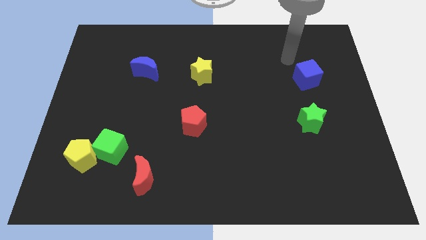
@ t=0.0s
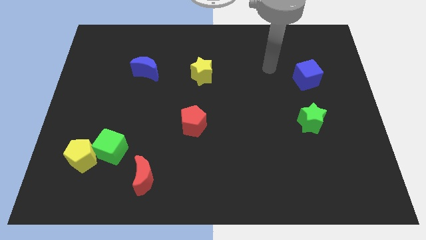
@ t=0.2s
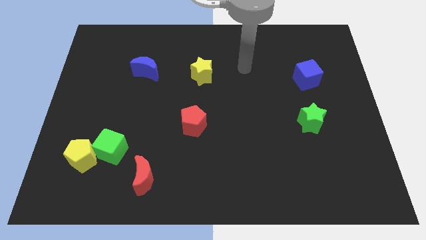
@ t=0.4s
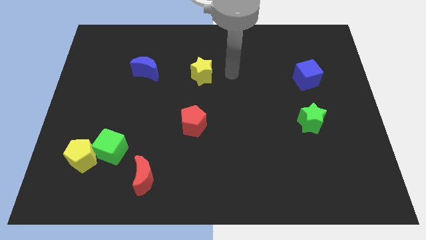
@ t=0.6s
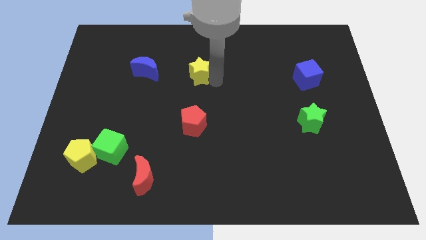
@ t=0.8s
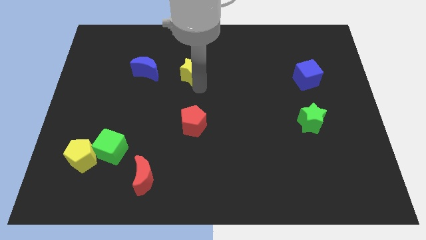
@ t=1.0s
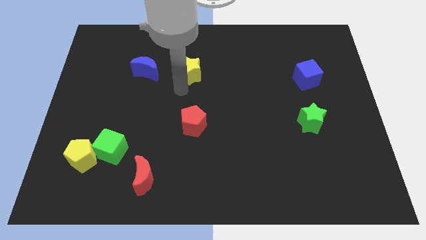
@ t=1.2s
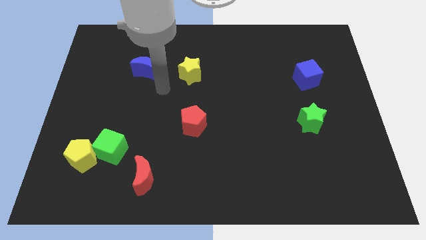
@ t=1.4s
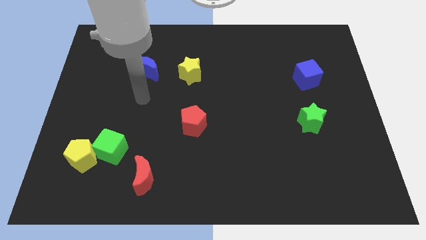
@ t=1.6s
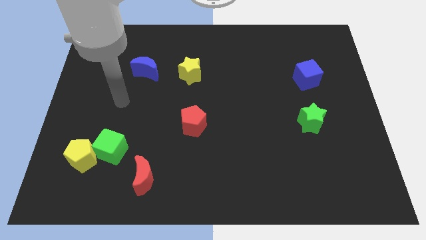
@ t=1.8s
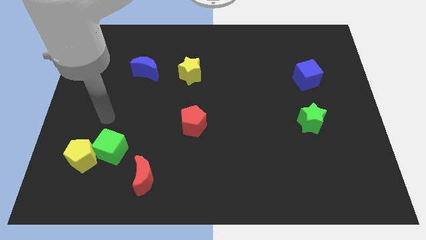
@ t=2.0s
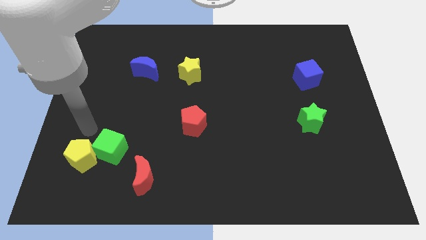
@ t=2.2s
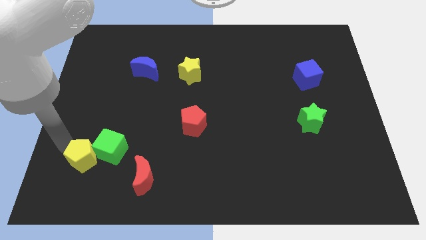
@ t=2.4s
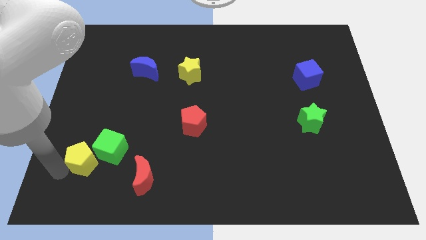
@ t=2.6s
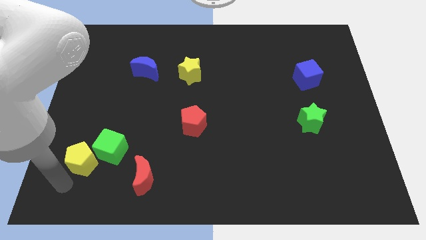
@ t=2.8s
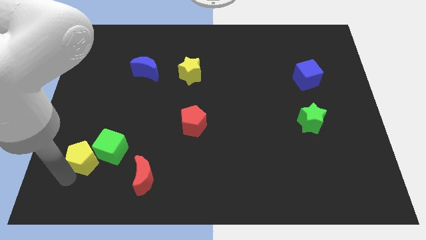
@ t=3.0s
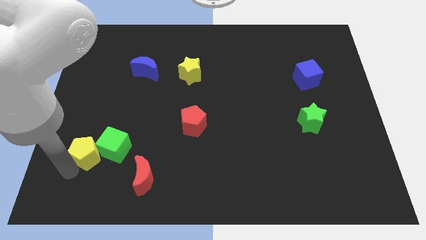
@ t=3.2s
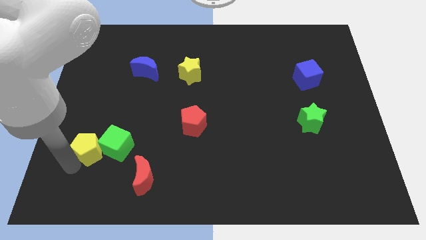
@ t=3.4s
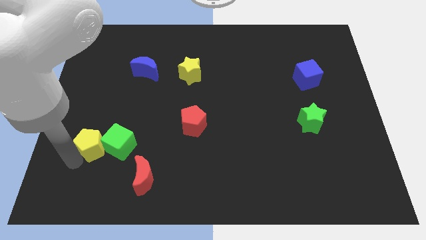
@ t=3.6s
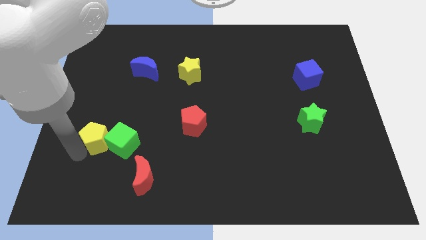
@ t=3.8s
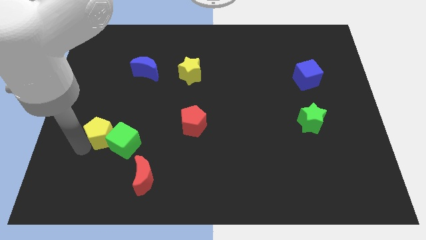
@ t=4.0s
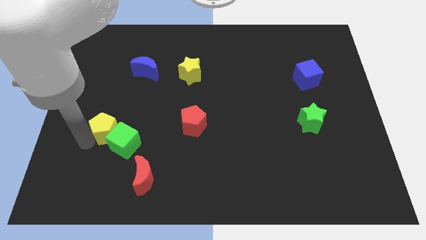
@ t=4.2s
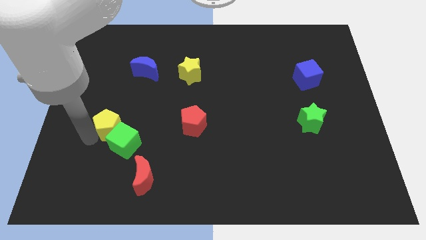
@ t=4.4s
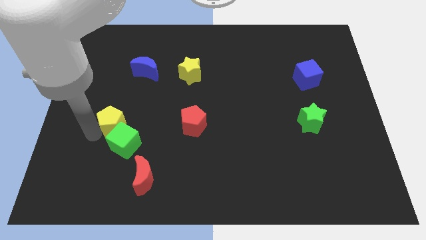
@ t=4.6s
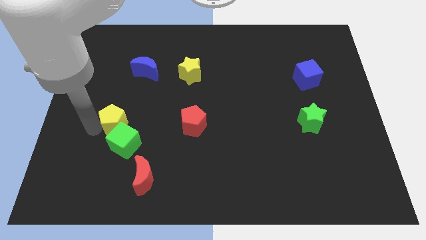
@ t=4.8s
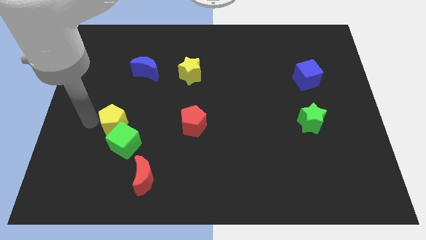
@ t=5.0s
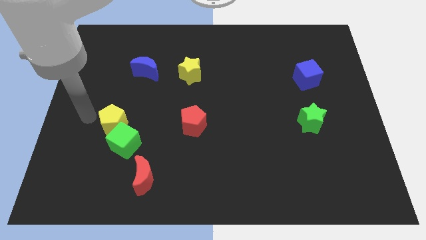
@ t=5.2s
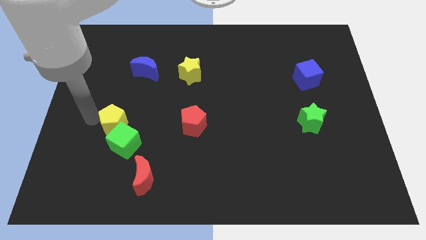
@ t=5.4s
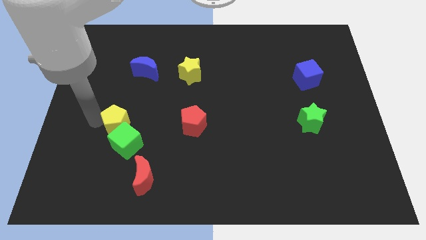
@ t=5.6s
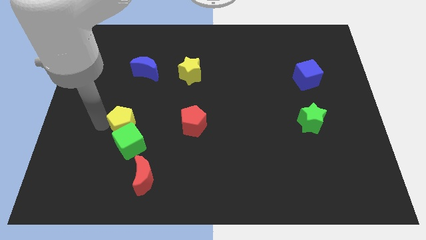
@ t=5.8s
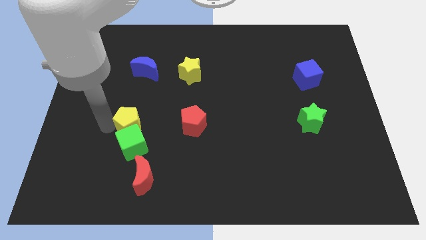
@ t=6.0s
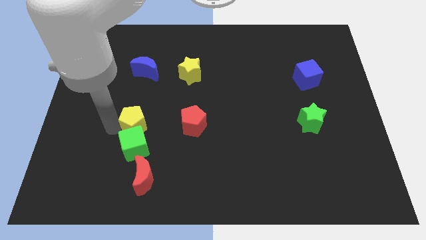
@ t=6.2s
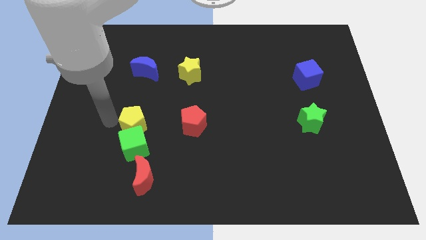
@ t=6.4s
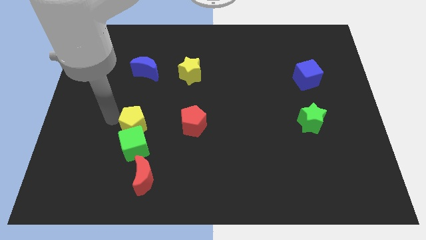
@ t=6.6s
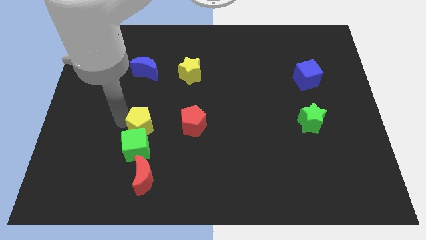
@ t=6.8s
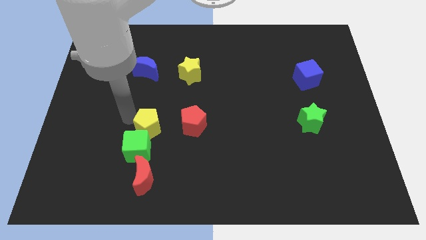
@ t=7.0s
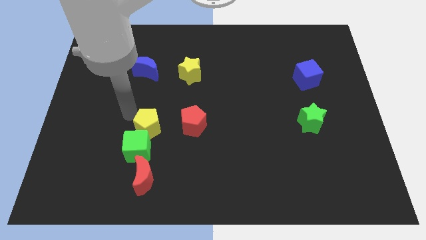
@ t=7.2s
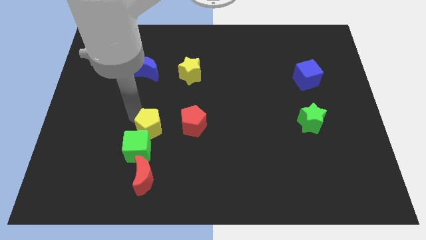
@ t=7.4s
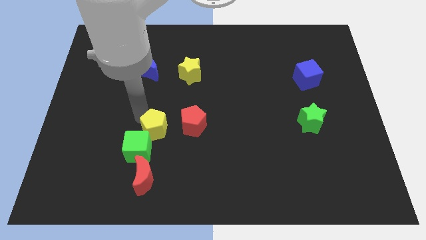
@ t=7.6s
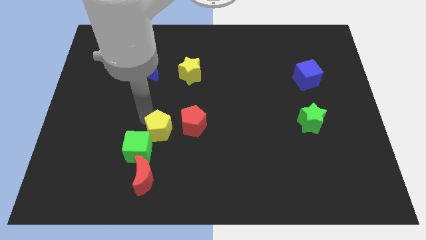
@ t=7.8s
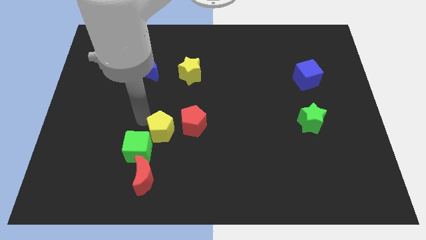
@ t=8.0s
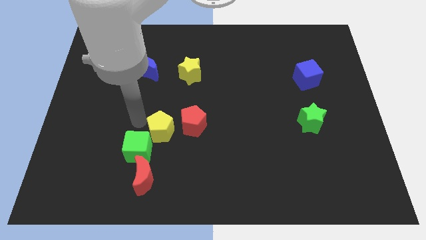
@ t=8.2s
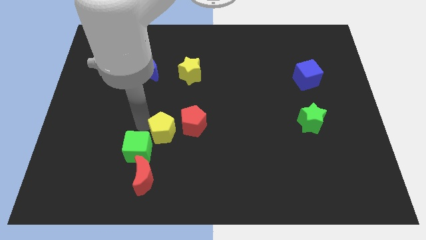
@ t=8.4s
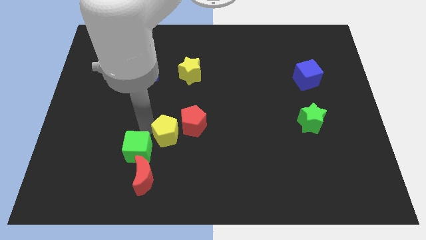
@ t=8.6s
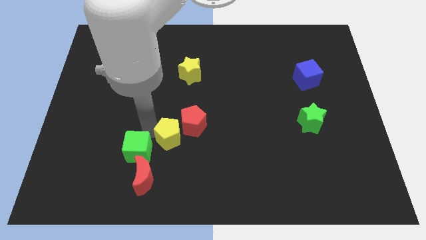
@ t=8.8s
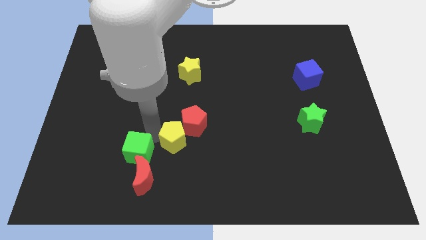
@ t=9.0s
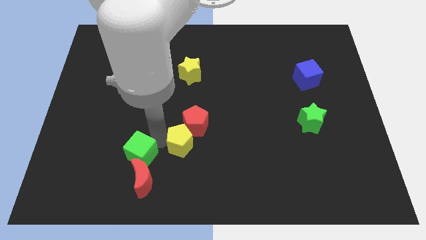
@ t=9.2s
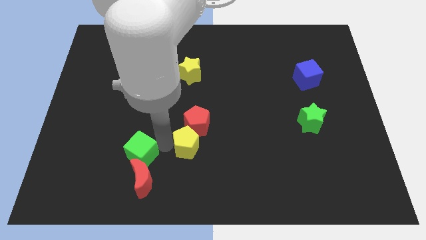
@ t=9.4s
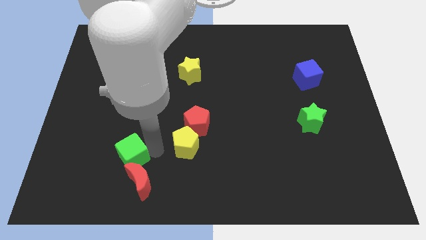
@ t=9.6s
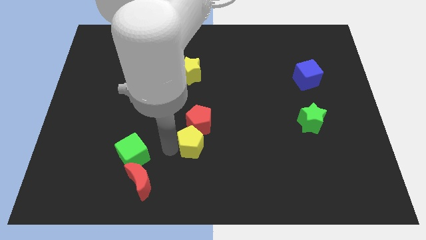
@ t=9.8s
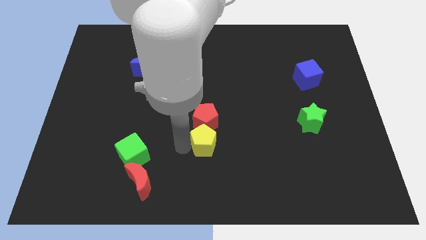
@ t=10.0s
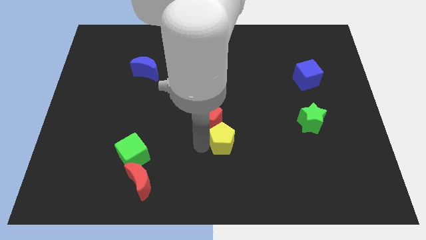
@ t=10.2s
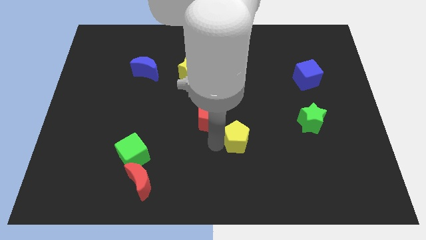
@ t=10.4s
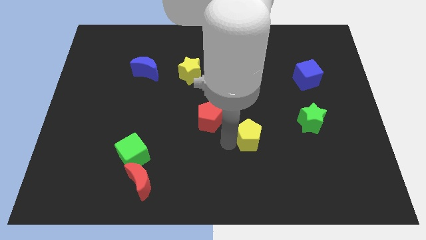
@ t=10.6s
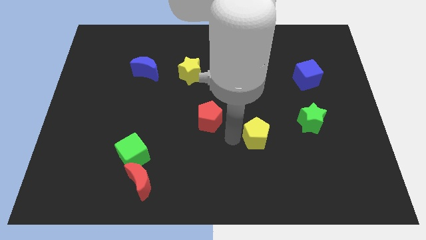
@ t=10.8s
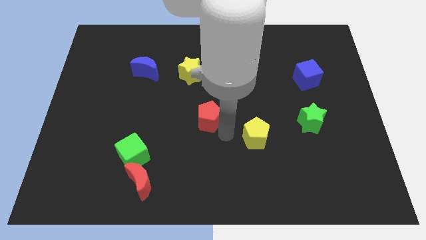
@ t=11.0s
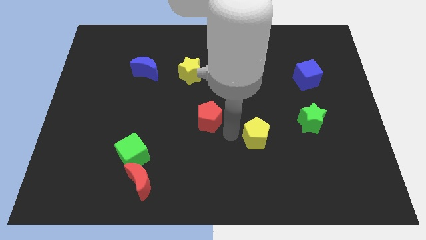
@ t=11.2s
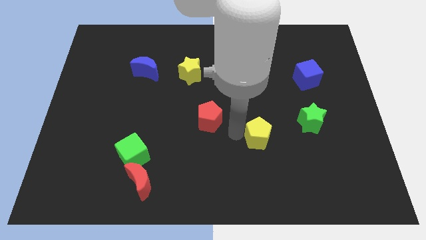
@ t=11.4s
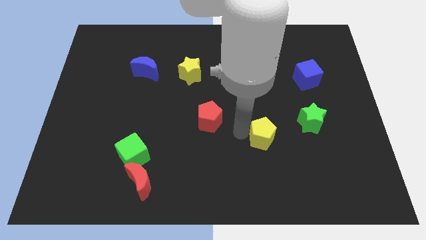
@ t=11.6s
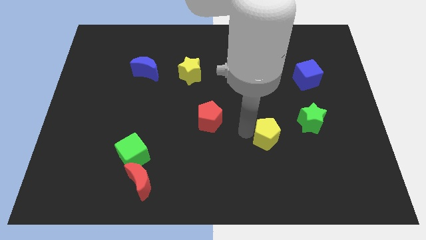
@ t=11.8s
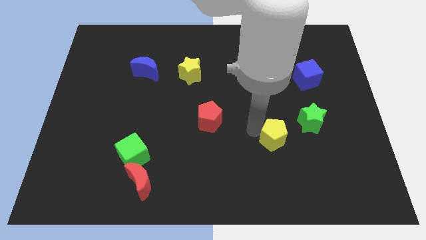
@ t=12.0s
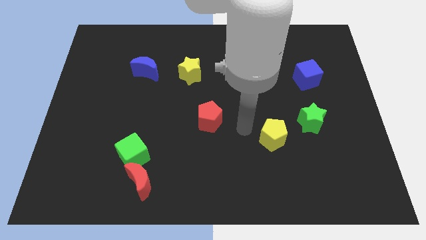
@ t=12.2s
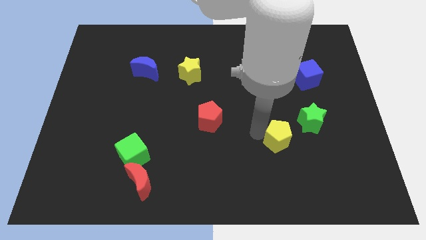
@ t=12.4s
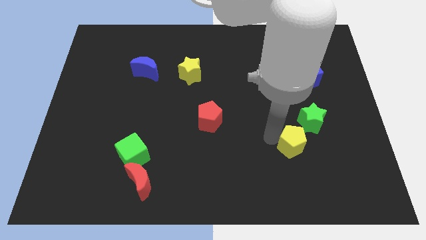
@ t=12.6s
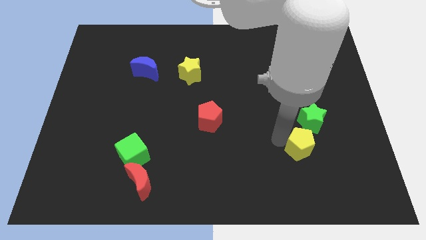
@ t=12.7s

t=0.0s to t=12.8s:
push the yellow pentagon to the bottom of the green star

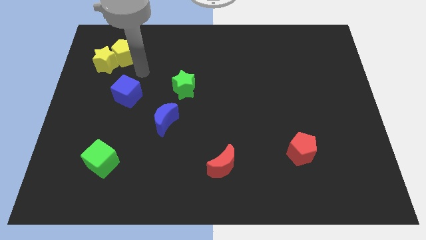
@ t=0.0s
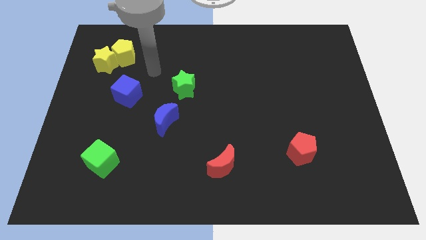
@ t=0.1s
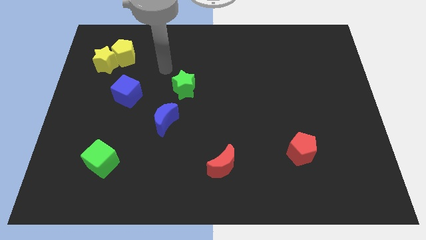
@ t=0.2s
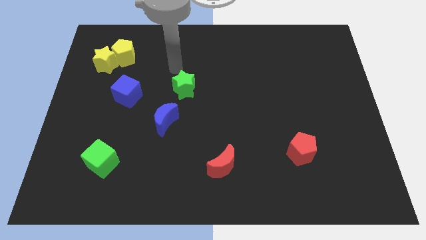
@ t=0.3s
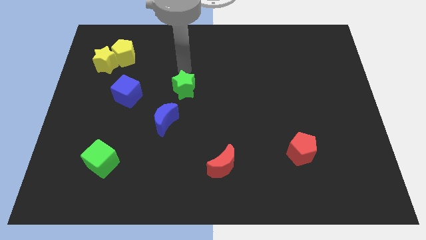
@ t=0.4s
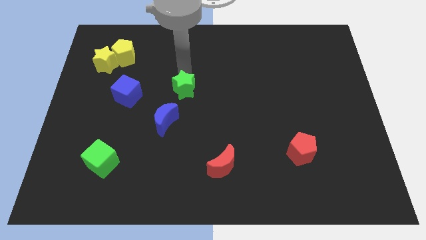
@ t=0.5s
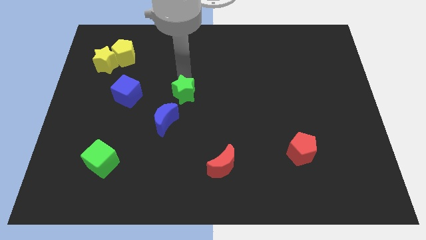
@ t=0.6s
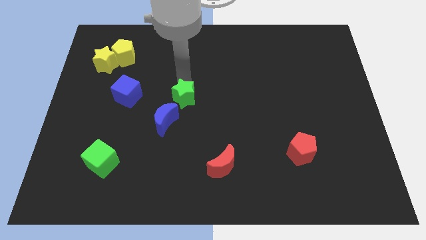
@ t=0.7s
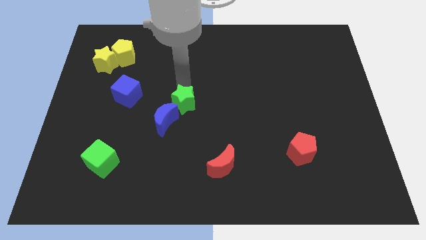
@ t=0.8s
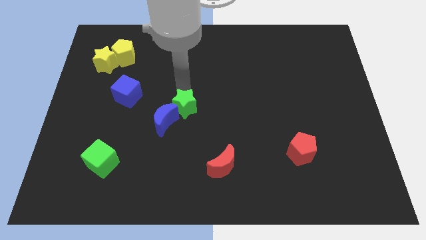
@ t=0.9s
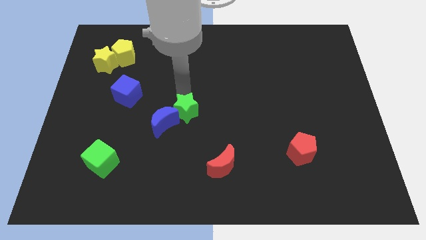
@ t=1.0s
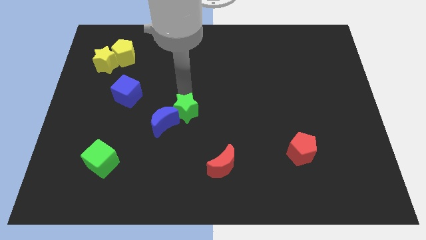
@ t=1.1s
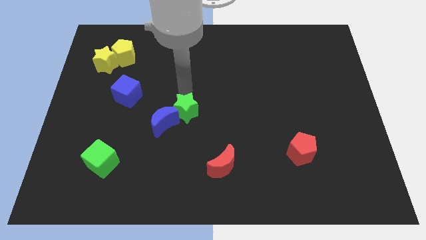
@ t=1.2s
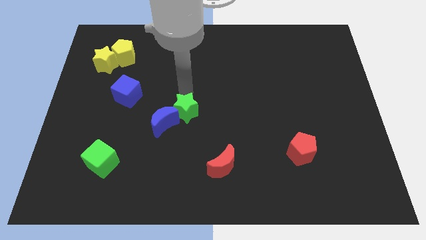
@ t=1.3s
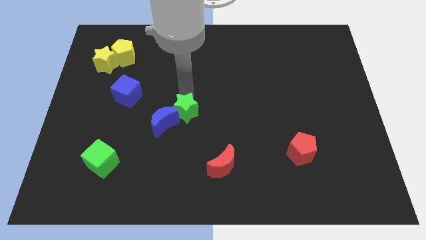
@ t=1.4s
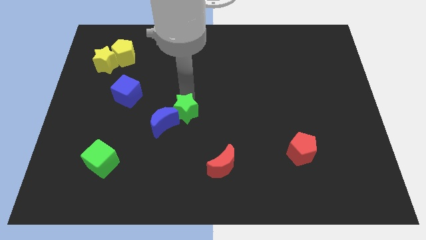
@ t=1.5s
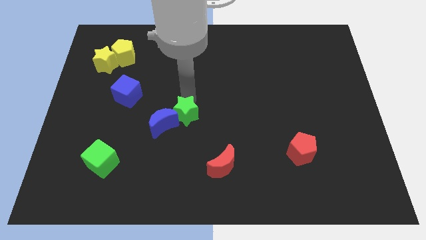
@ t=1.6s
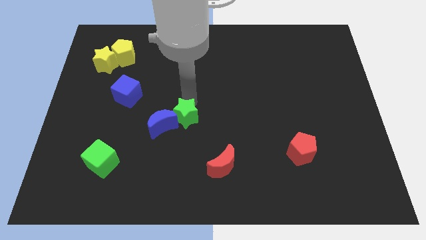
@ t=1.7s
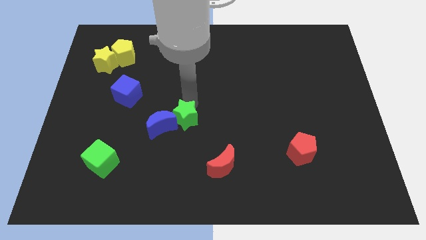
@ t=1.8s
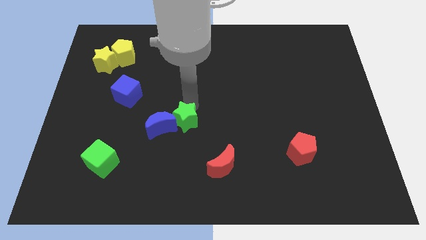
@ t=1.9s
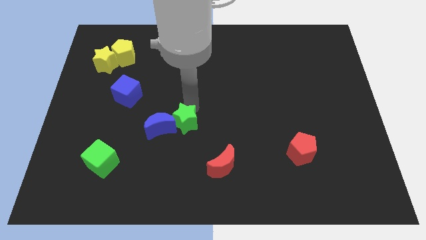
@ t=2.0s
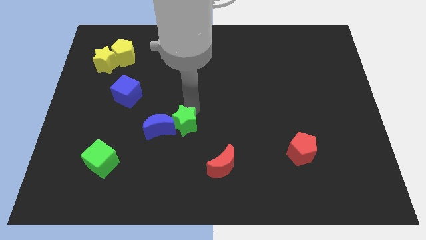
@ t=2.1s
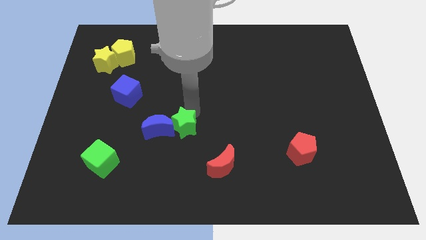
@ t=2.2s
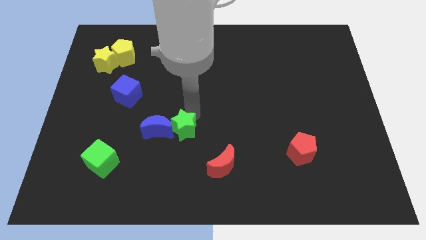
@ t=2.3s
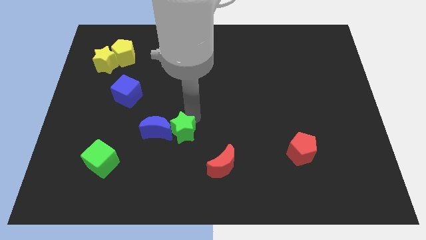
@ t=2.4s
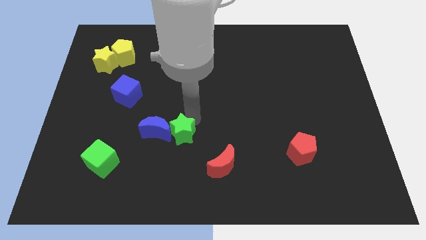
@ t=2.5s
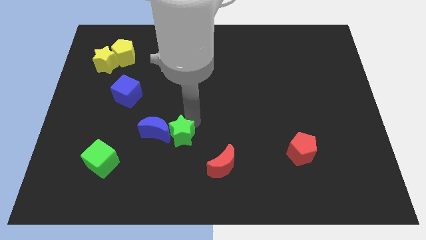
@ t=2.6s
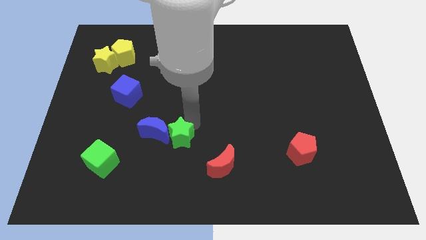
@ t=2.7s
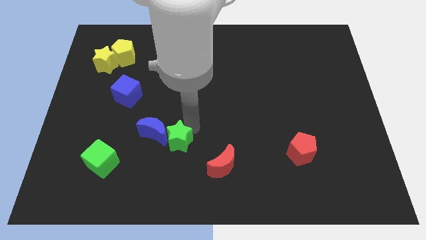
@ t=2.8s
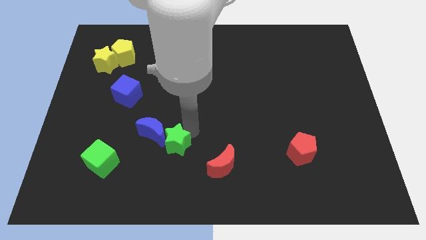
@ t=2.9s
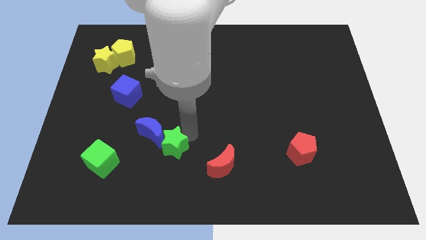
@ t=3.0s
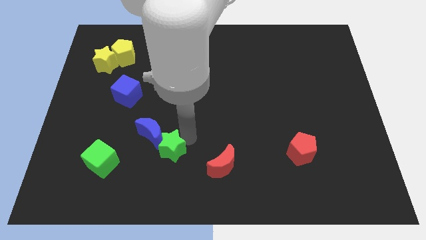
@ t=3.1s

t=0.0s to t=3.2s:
move the green star to the bottom side of the blue moon
